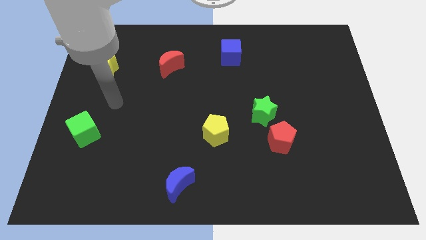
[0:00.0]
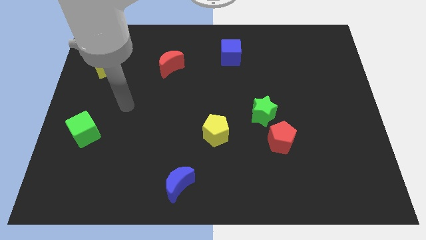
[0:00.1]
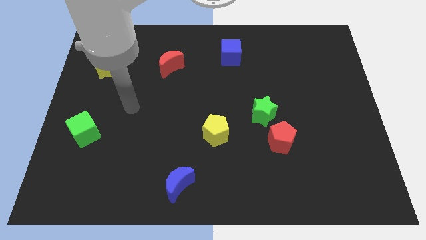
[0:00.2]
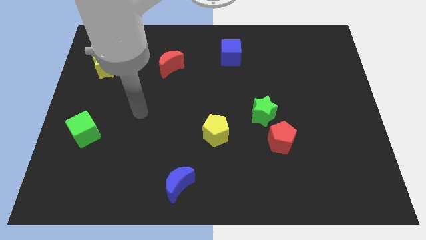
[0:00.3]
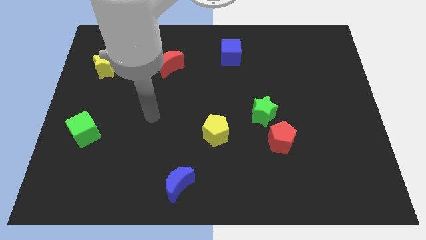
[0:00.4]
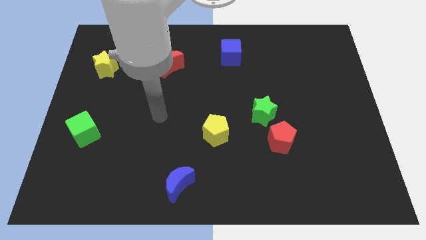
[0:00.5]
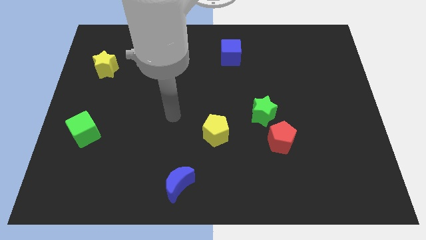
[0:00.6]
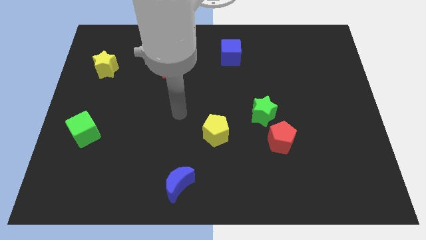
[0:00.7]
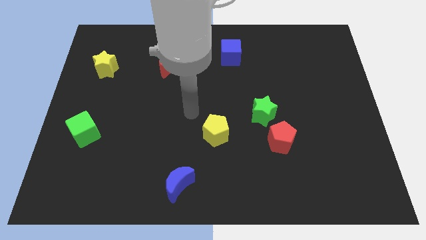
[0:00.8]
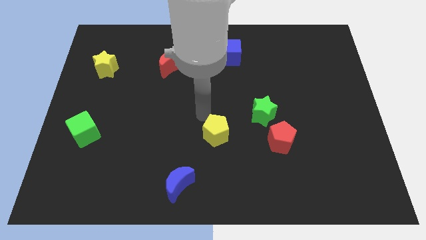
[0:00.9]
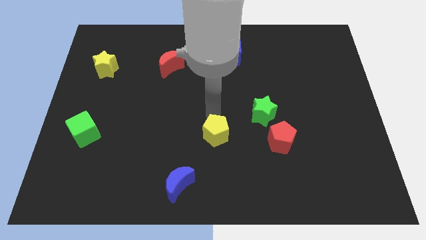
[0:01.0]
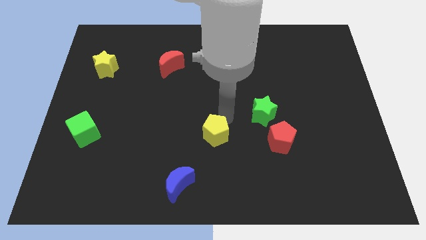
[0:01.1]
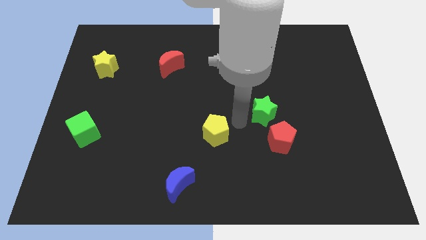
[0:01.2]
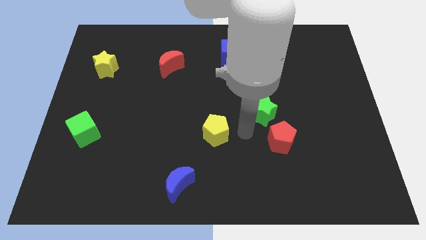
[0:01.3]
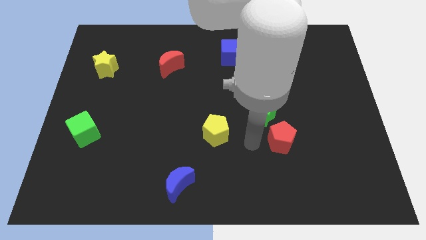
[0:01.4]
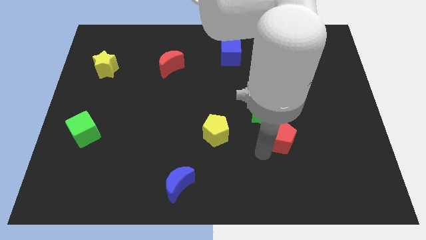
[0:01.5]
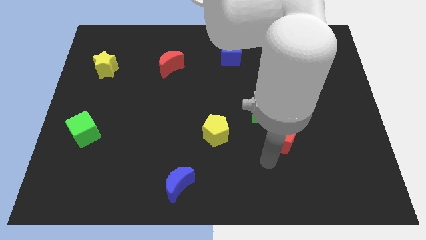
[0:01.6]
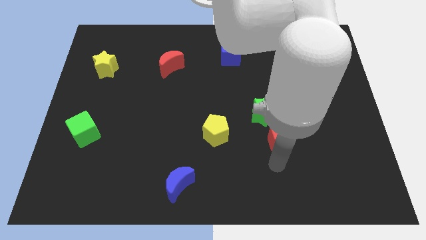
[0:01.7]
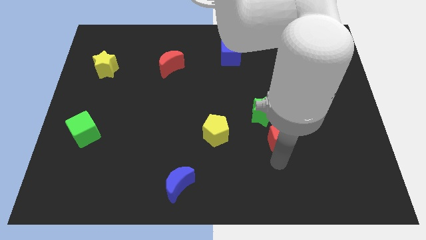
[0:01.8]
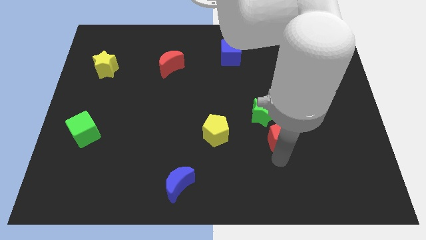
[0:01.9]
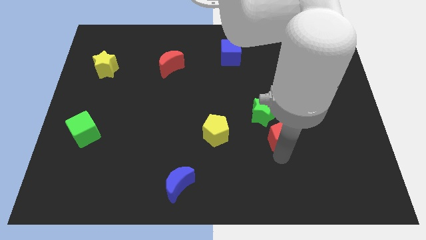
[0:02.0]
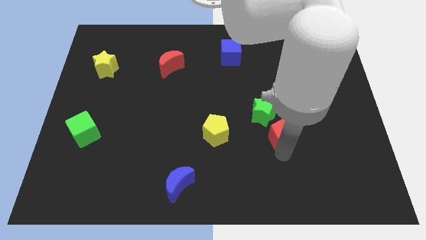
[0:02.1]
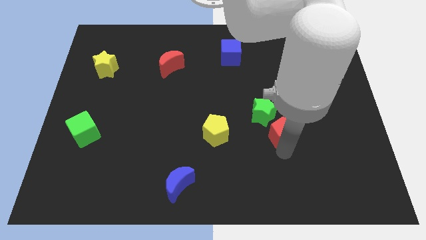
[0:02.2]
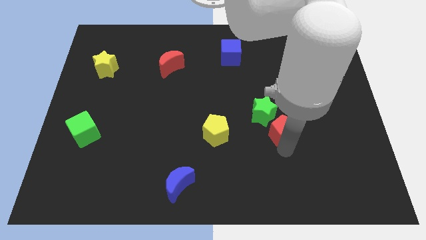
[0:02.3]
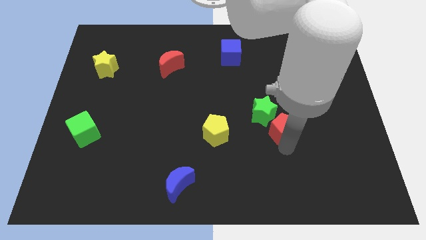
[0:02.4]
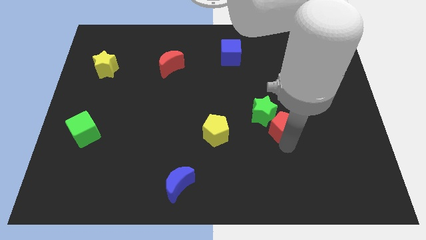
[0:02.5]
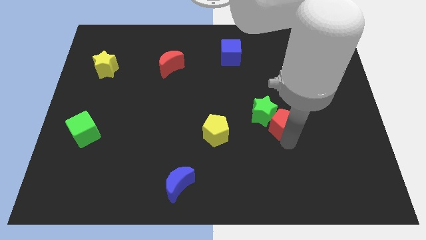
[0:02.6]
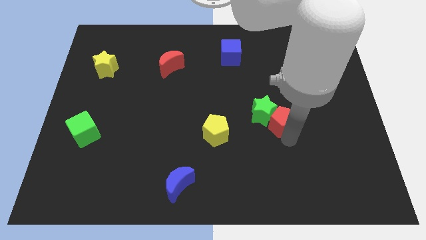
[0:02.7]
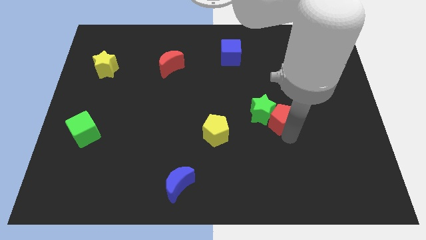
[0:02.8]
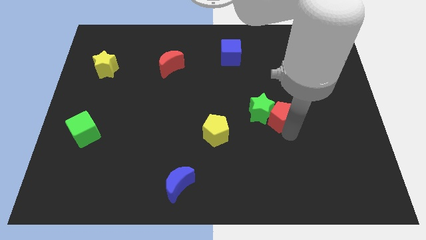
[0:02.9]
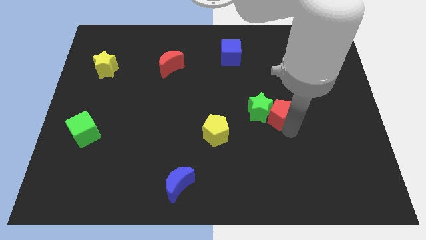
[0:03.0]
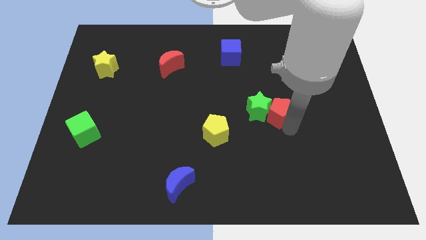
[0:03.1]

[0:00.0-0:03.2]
slightly move the red pentagon upwards

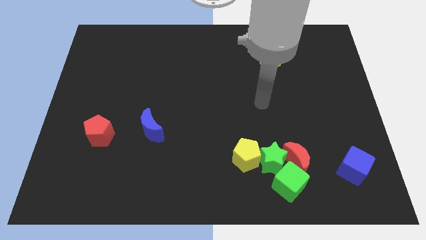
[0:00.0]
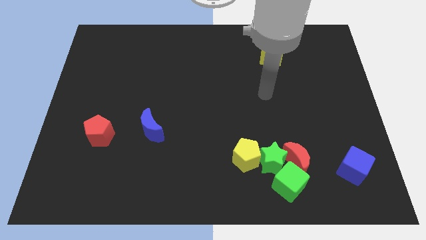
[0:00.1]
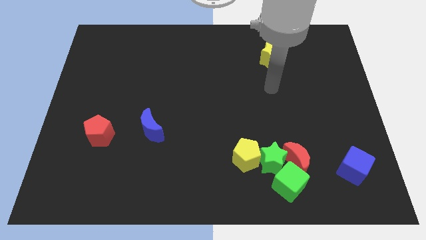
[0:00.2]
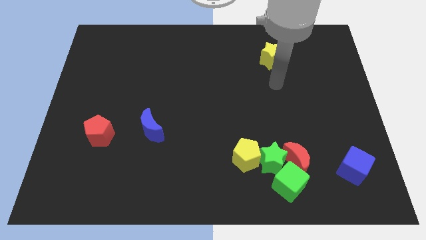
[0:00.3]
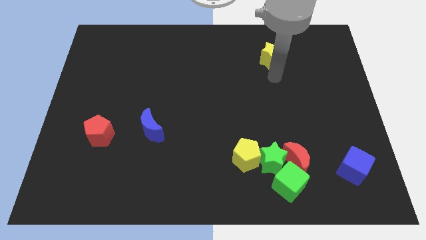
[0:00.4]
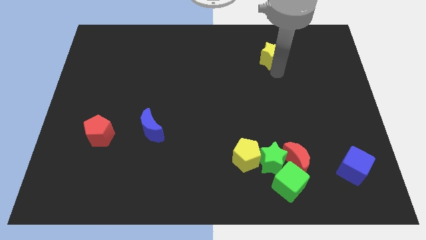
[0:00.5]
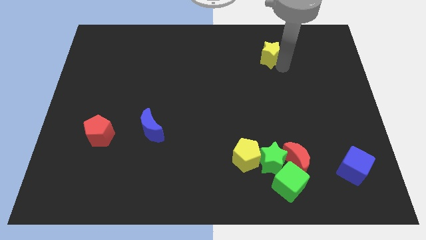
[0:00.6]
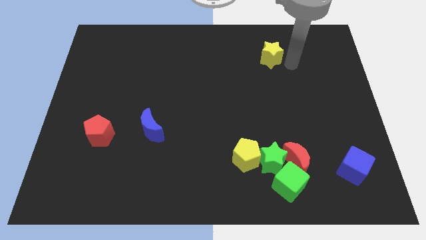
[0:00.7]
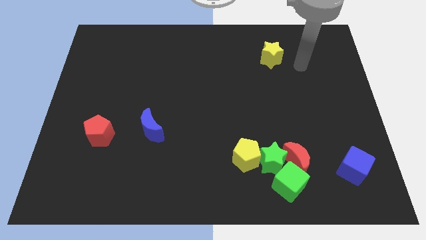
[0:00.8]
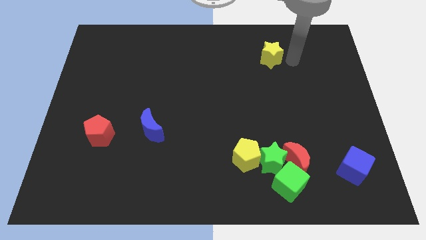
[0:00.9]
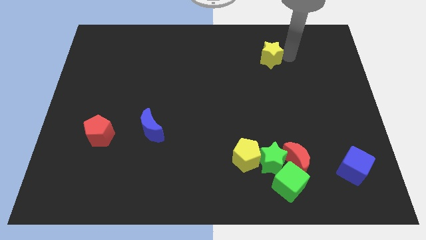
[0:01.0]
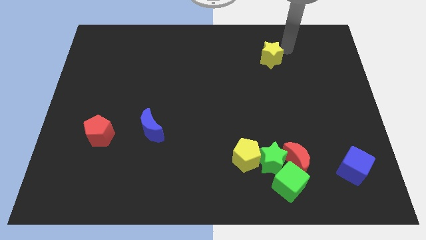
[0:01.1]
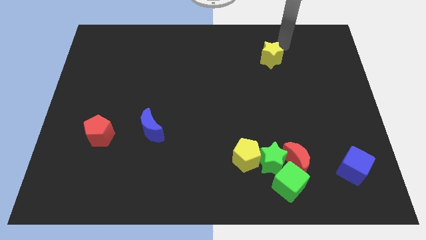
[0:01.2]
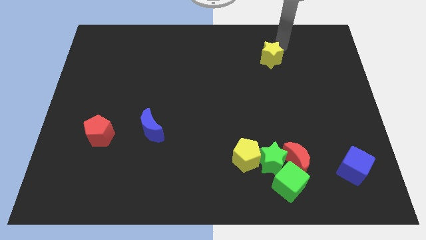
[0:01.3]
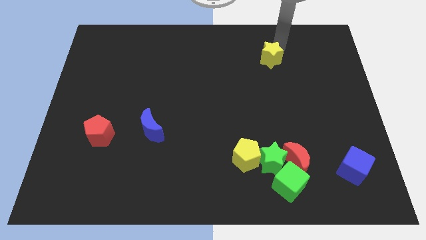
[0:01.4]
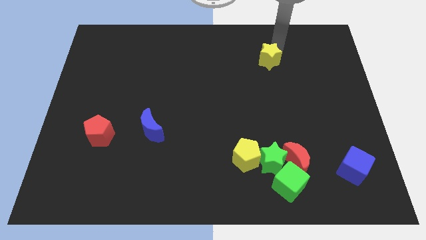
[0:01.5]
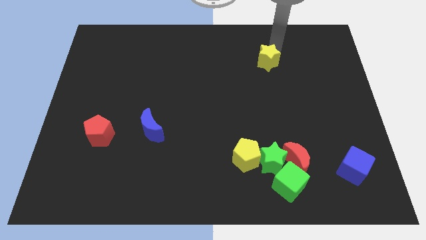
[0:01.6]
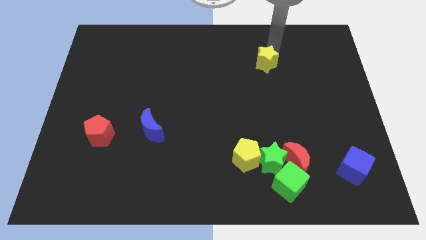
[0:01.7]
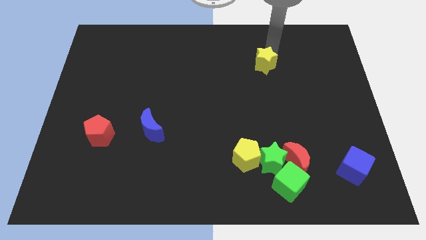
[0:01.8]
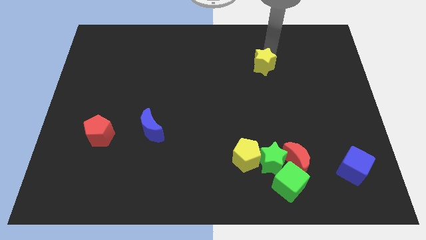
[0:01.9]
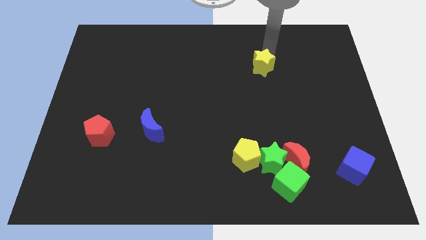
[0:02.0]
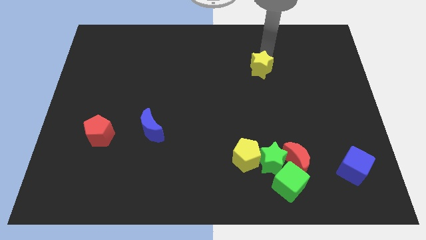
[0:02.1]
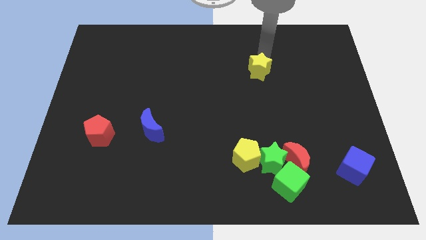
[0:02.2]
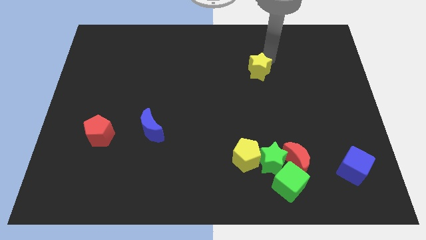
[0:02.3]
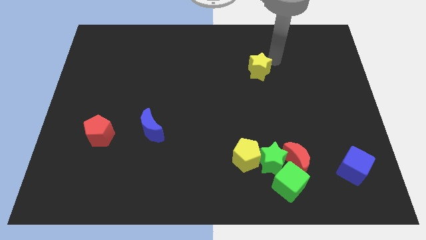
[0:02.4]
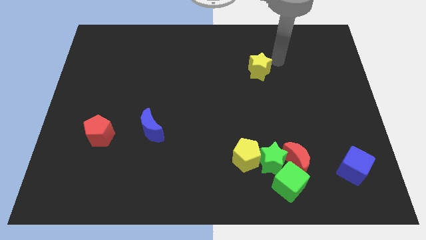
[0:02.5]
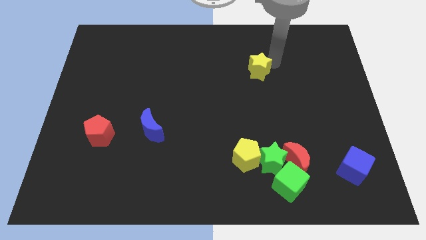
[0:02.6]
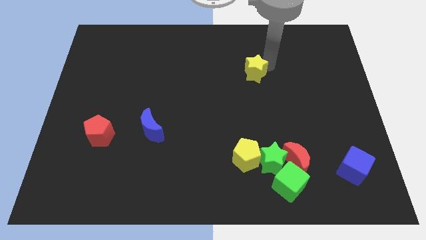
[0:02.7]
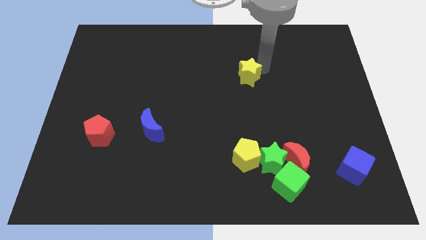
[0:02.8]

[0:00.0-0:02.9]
push the yellow star a little downwards and left diagonally

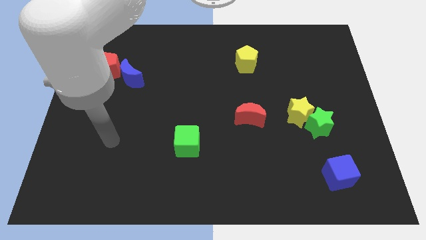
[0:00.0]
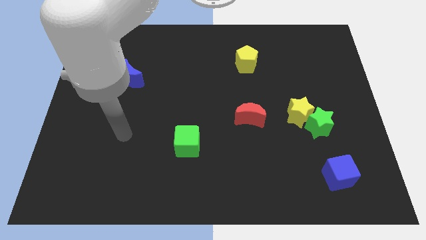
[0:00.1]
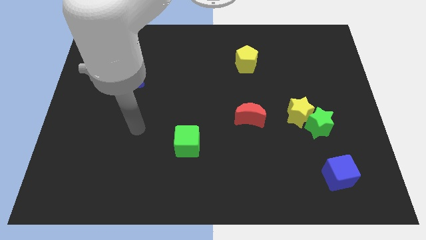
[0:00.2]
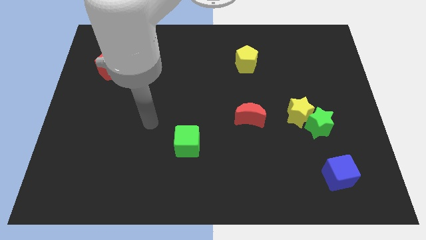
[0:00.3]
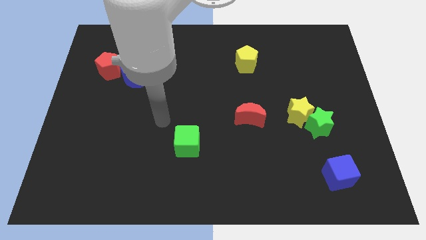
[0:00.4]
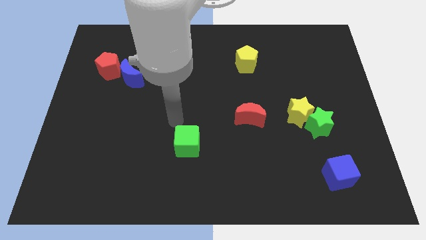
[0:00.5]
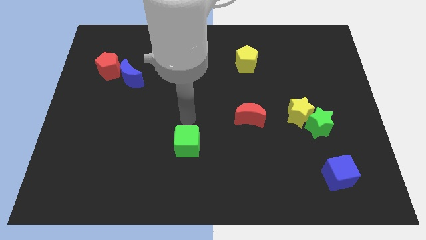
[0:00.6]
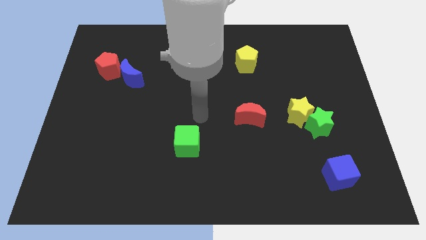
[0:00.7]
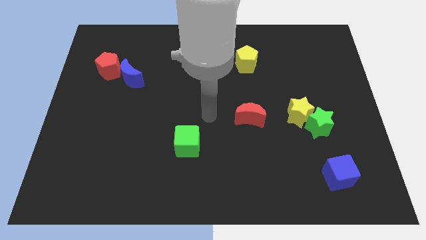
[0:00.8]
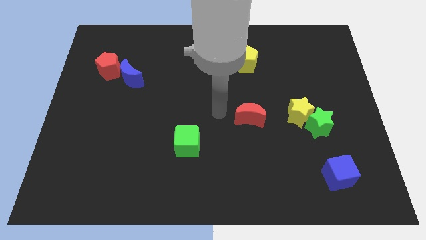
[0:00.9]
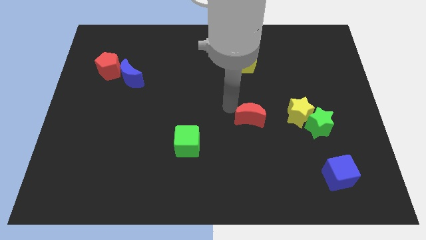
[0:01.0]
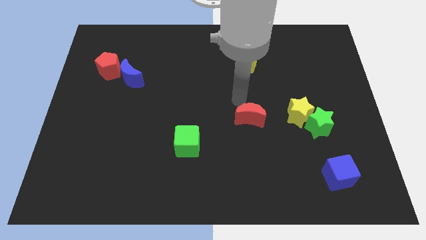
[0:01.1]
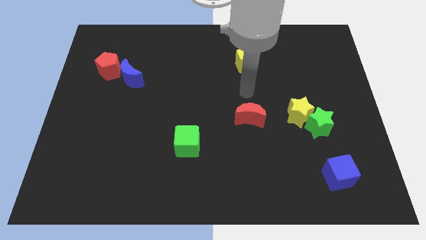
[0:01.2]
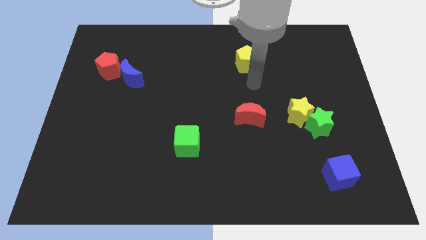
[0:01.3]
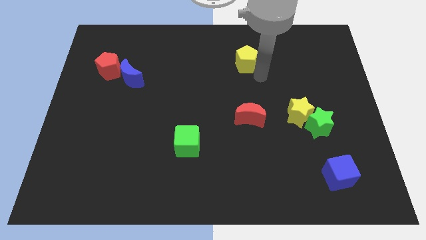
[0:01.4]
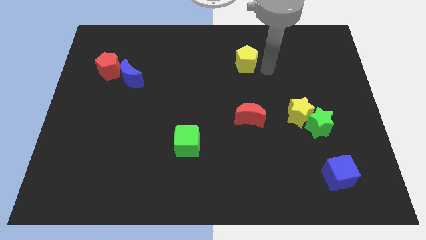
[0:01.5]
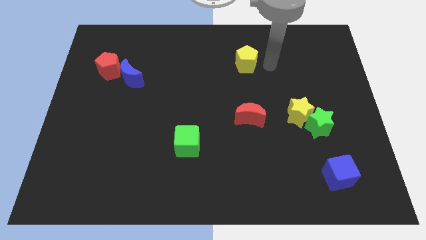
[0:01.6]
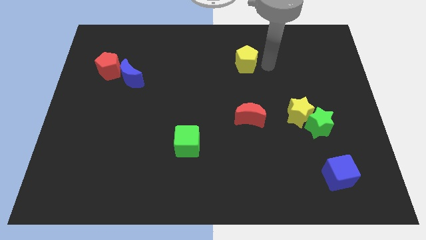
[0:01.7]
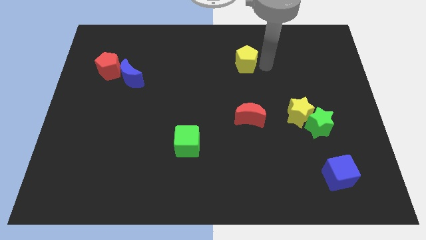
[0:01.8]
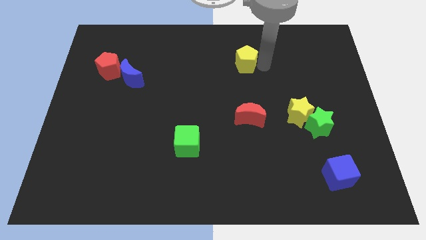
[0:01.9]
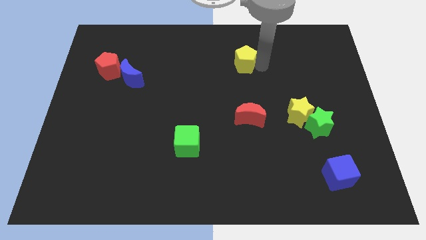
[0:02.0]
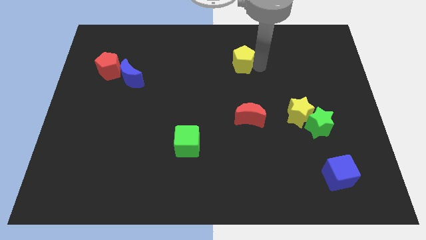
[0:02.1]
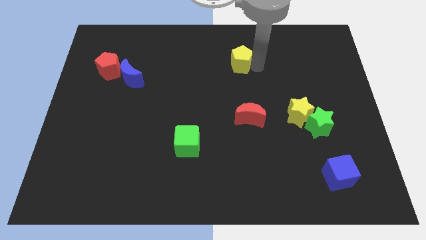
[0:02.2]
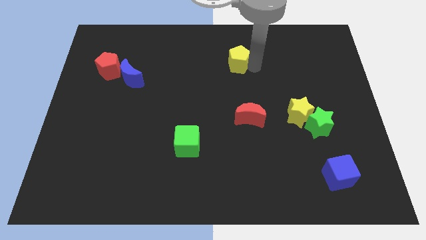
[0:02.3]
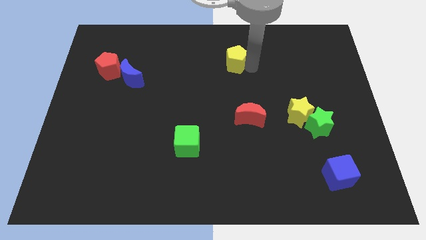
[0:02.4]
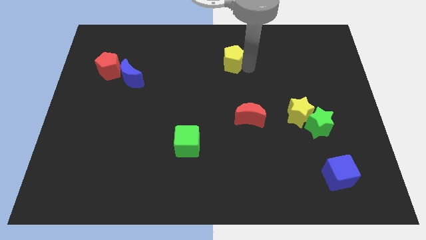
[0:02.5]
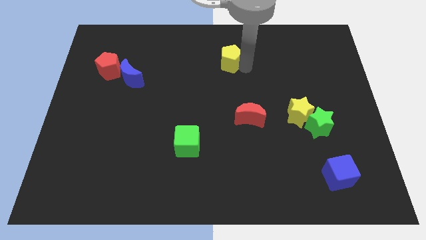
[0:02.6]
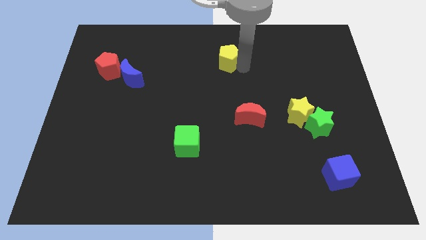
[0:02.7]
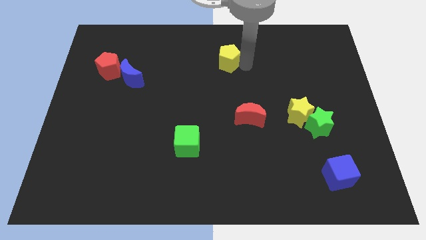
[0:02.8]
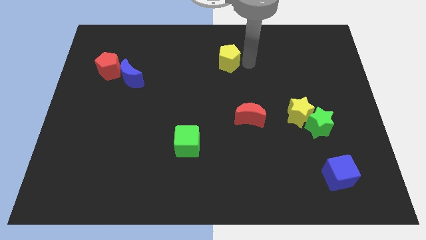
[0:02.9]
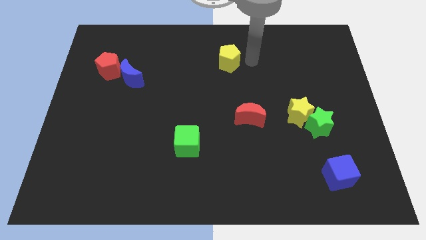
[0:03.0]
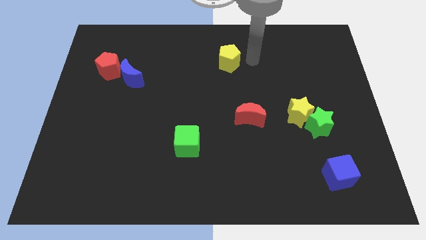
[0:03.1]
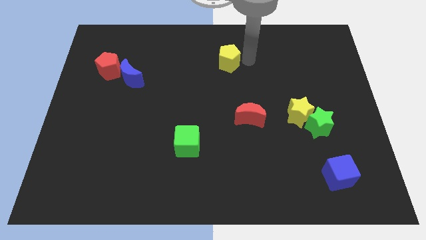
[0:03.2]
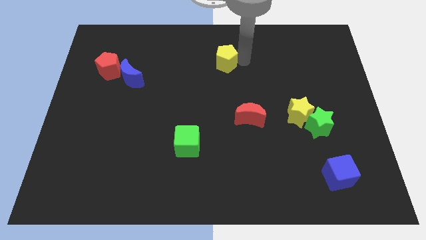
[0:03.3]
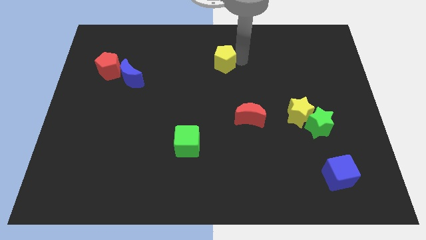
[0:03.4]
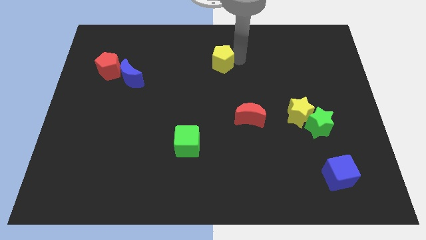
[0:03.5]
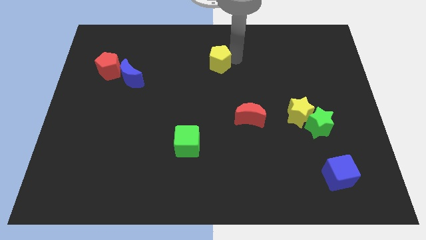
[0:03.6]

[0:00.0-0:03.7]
move the yellow pentagon a little bit to the left
